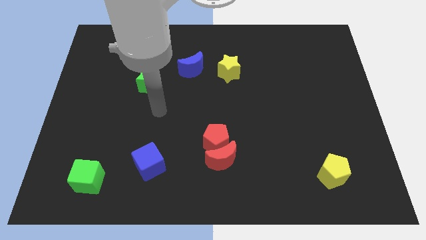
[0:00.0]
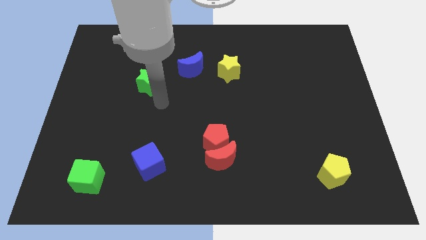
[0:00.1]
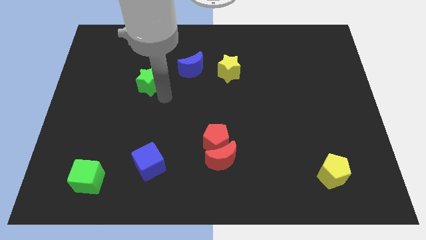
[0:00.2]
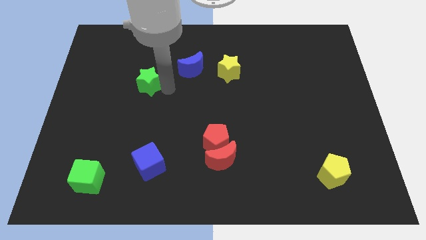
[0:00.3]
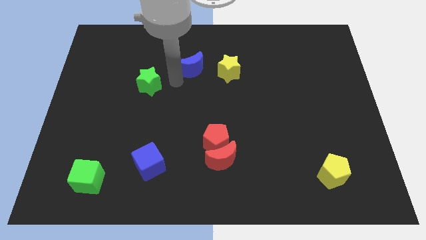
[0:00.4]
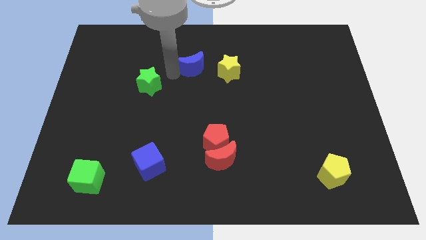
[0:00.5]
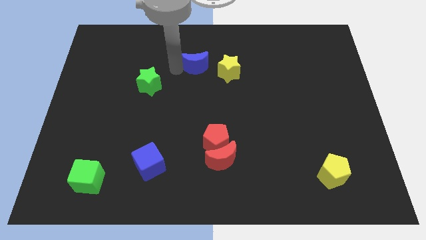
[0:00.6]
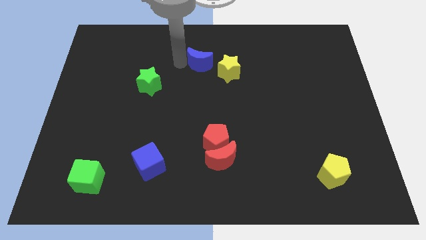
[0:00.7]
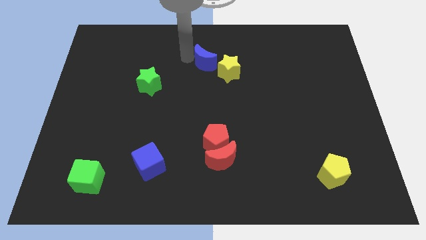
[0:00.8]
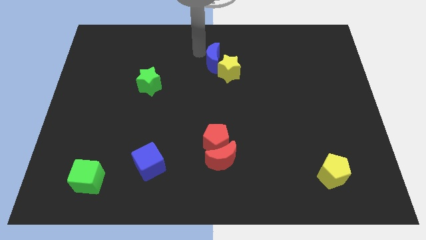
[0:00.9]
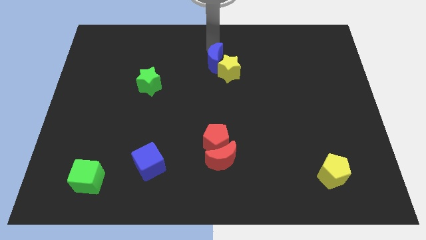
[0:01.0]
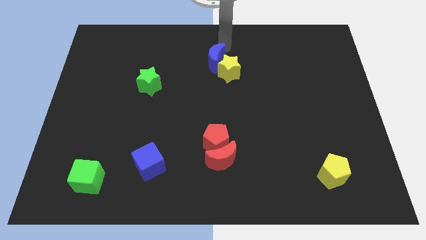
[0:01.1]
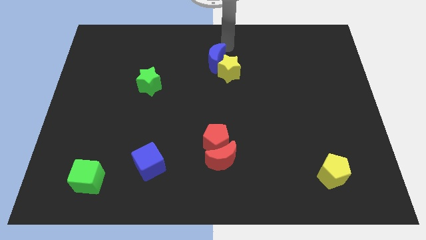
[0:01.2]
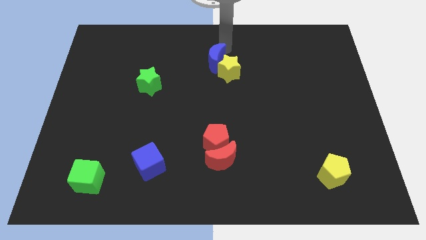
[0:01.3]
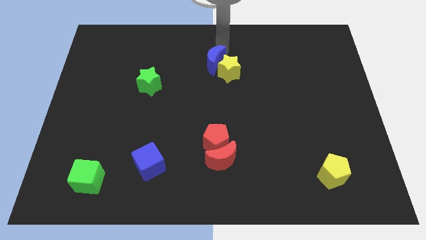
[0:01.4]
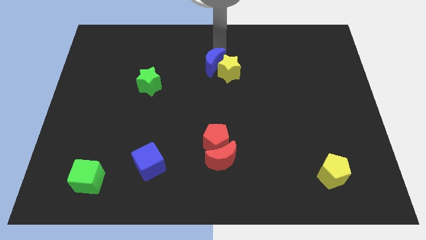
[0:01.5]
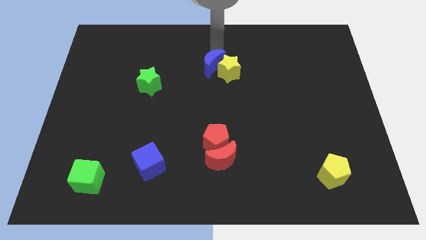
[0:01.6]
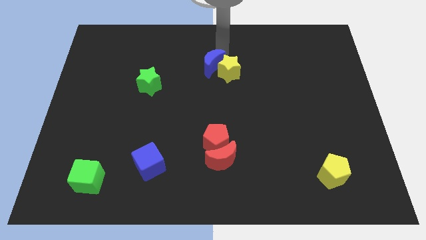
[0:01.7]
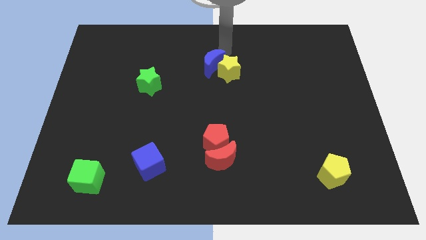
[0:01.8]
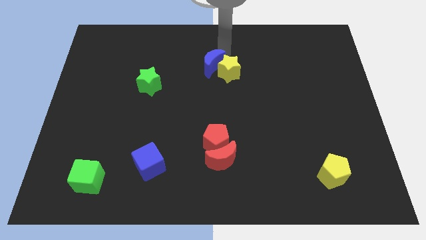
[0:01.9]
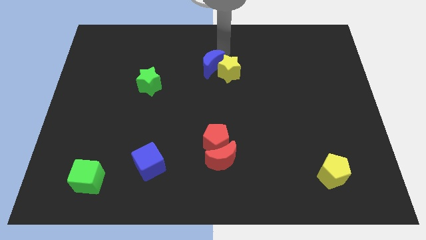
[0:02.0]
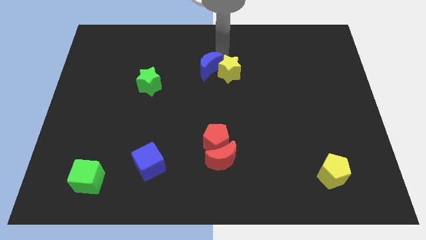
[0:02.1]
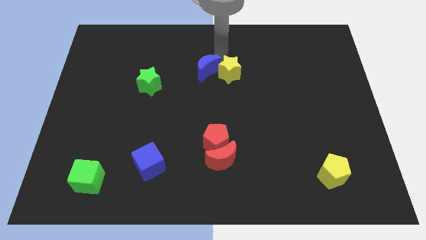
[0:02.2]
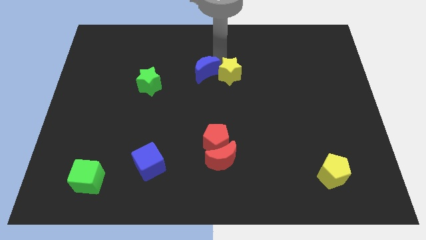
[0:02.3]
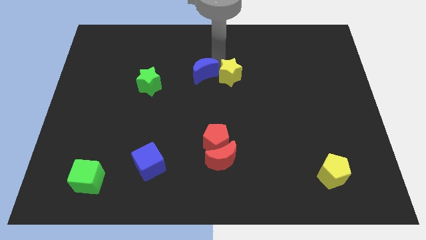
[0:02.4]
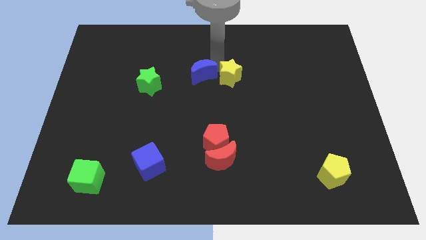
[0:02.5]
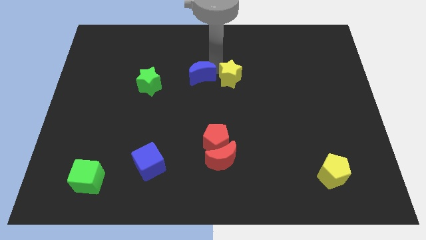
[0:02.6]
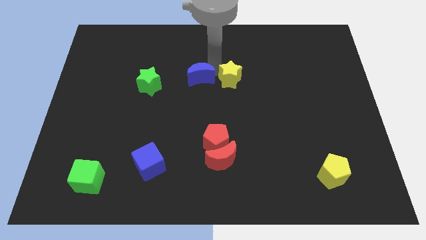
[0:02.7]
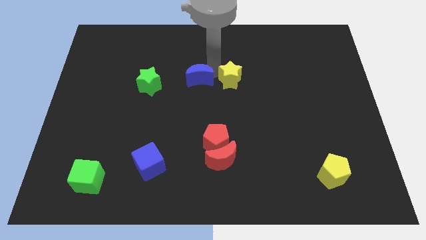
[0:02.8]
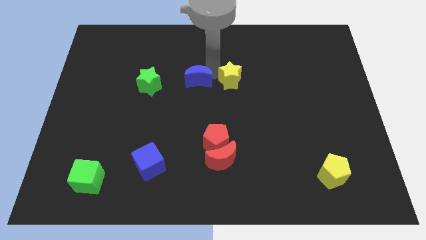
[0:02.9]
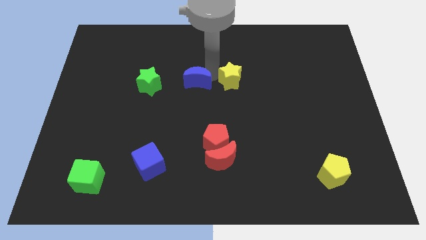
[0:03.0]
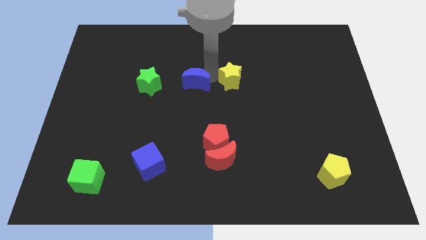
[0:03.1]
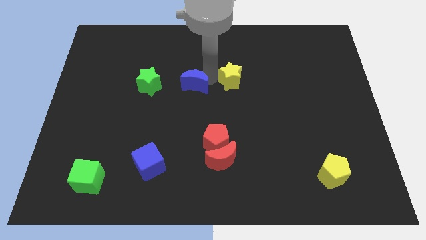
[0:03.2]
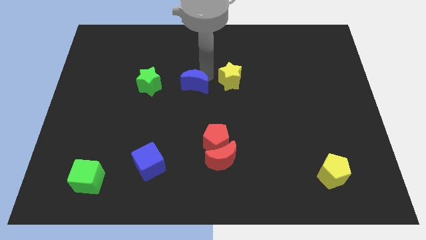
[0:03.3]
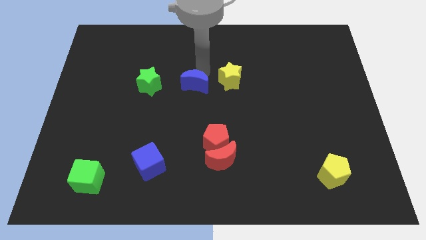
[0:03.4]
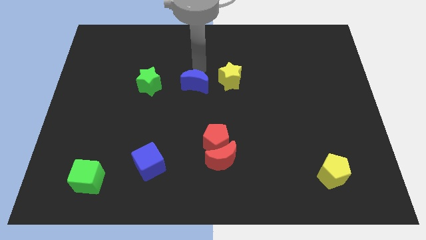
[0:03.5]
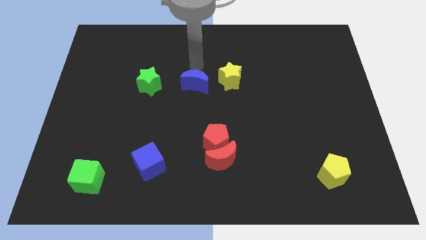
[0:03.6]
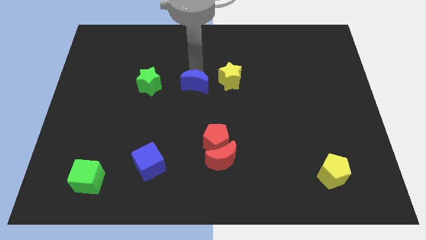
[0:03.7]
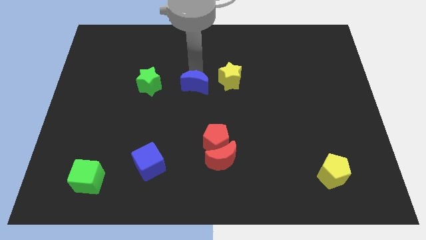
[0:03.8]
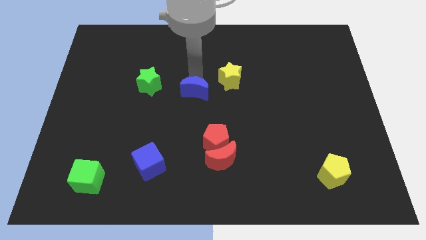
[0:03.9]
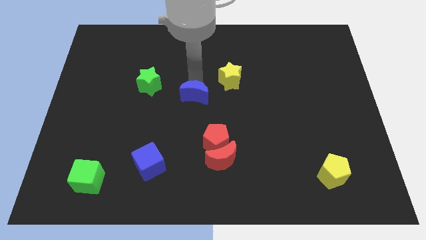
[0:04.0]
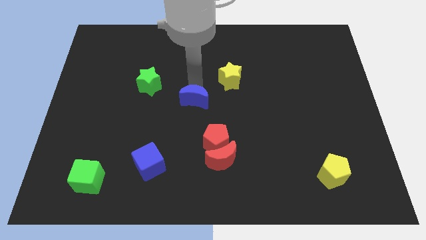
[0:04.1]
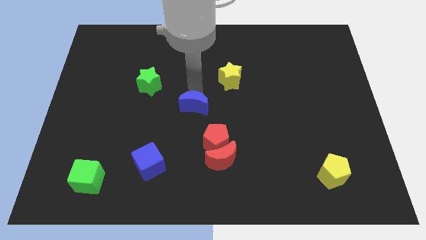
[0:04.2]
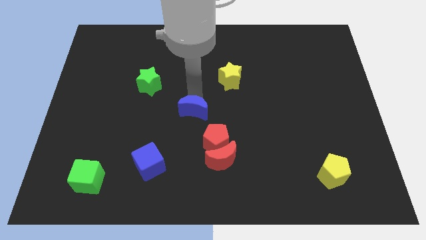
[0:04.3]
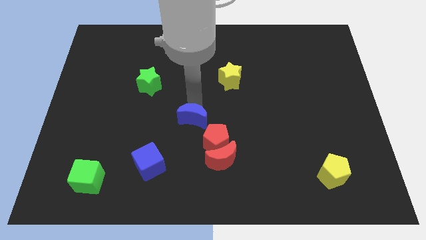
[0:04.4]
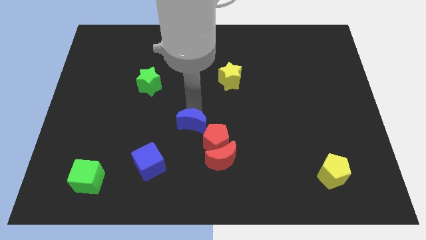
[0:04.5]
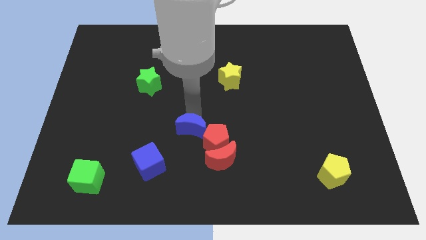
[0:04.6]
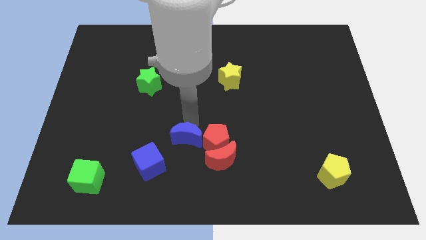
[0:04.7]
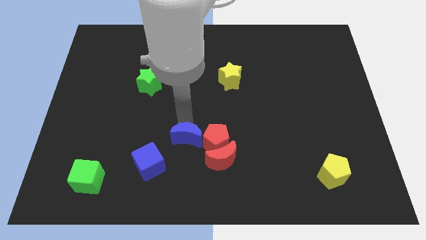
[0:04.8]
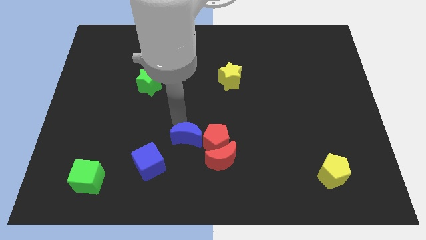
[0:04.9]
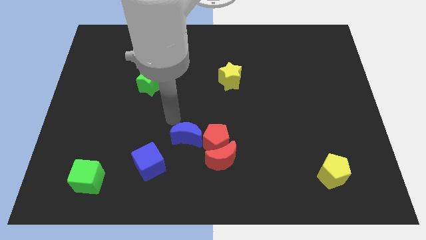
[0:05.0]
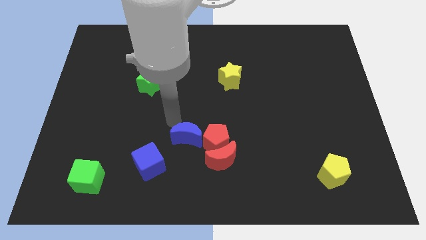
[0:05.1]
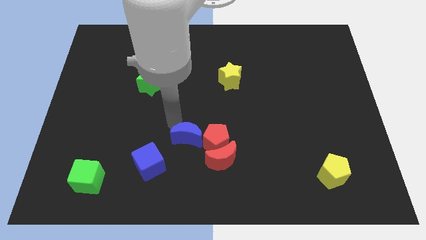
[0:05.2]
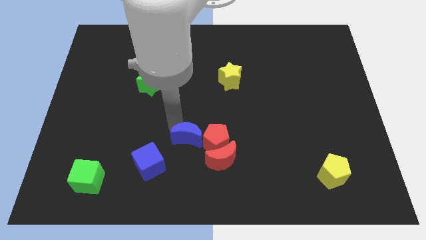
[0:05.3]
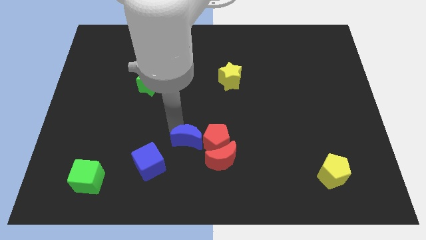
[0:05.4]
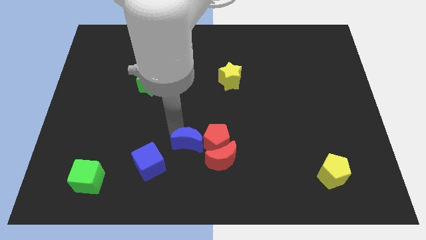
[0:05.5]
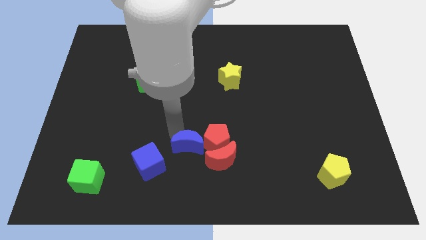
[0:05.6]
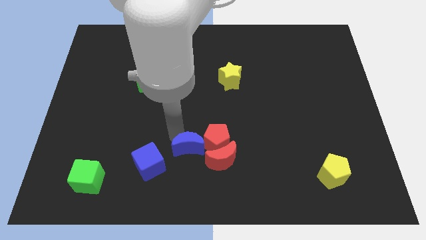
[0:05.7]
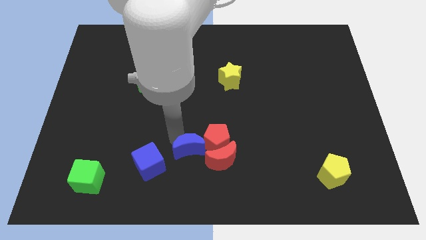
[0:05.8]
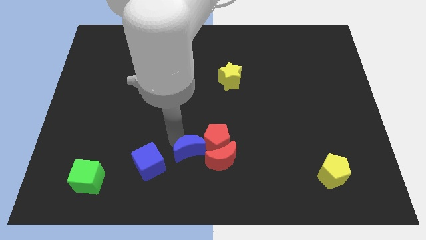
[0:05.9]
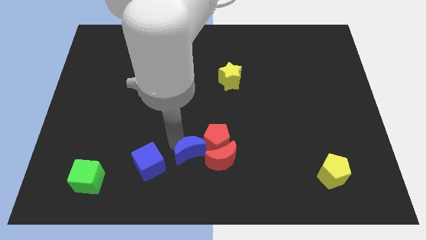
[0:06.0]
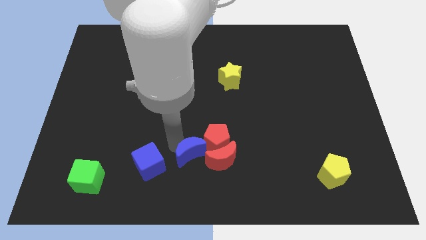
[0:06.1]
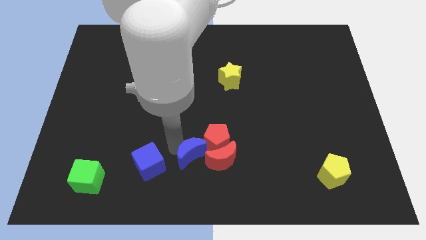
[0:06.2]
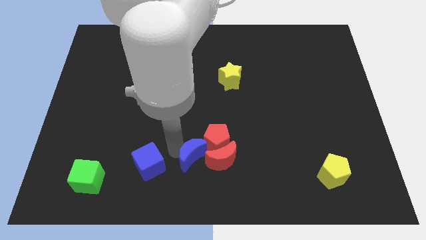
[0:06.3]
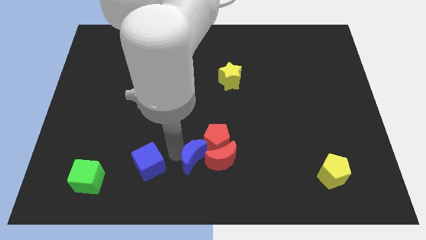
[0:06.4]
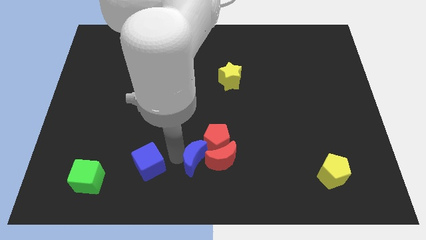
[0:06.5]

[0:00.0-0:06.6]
push the blue moon to the red moon
